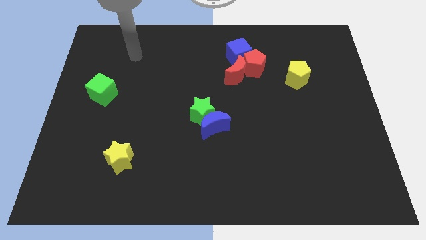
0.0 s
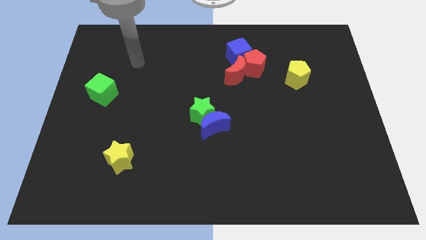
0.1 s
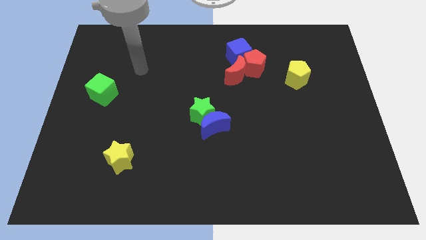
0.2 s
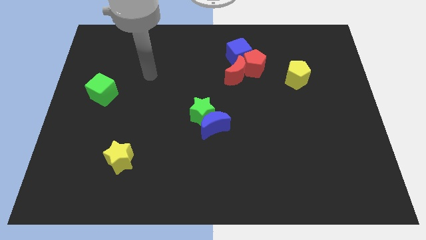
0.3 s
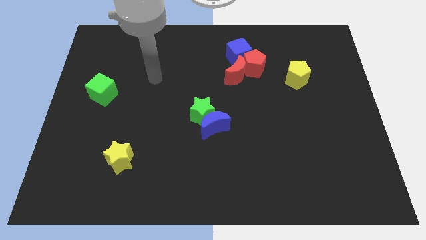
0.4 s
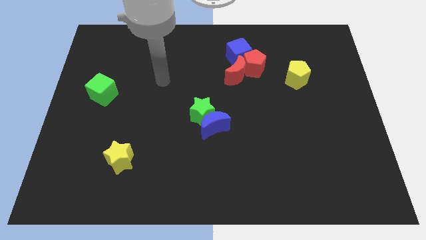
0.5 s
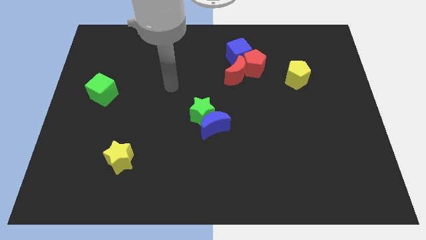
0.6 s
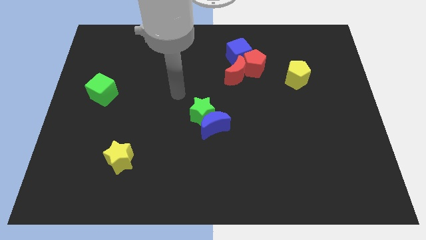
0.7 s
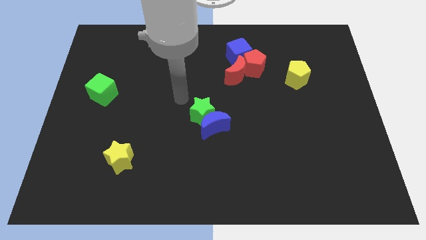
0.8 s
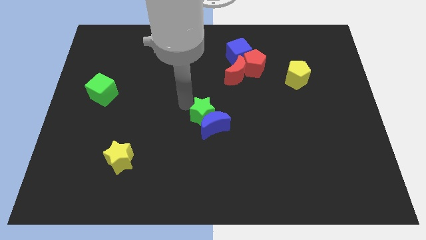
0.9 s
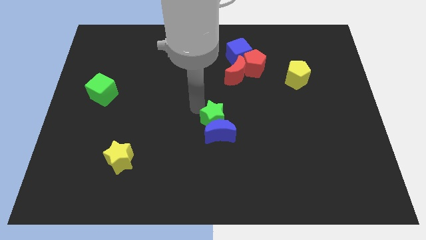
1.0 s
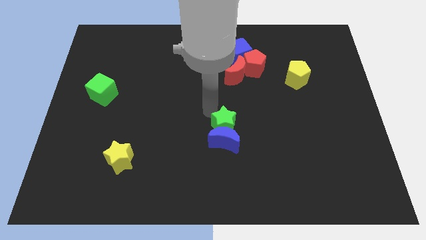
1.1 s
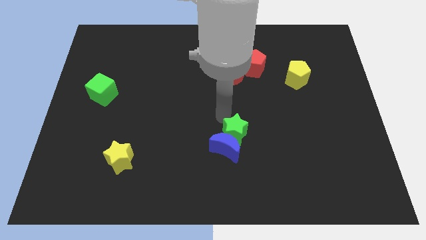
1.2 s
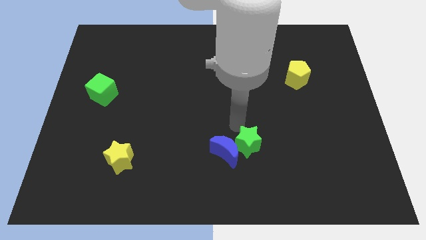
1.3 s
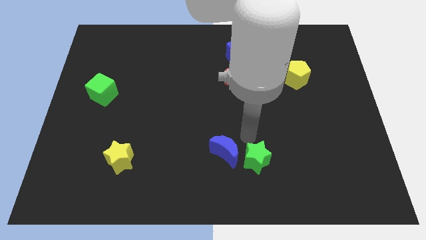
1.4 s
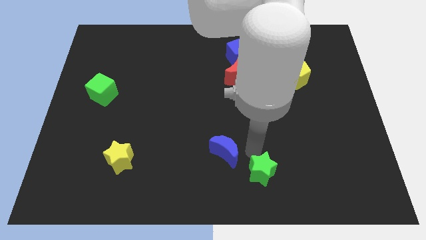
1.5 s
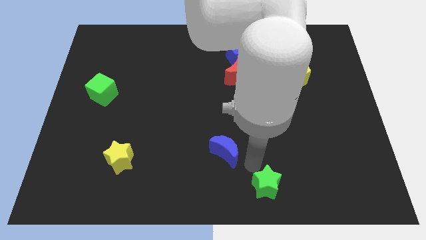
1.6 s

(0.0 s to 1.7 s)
pull the blue moon apart from the green star

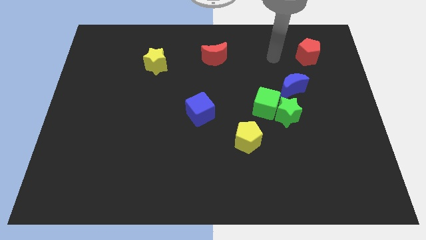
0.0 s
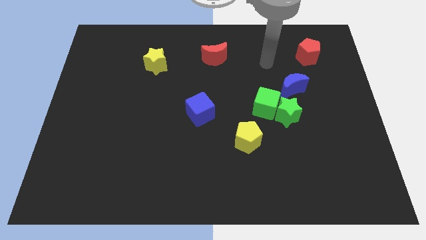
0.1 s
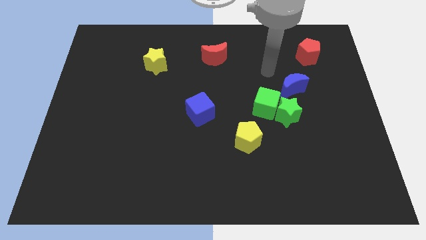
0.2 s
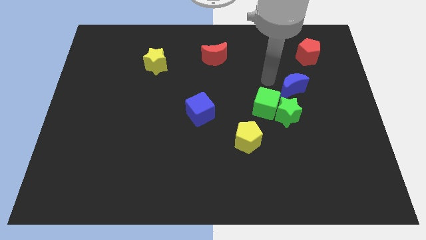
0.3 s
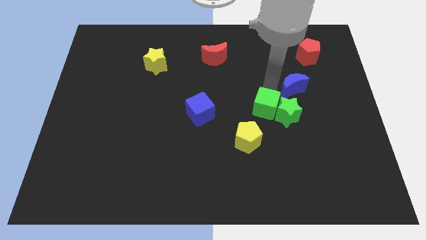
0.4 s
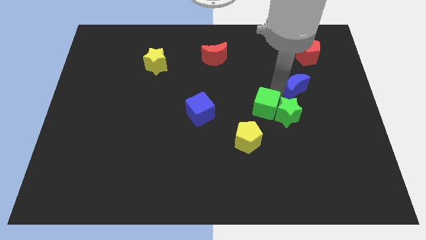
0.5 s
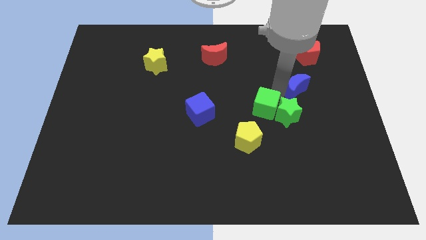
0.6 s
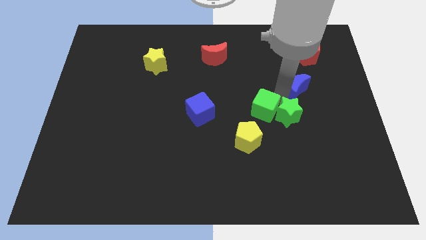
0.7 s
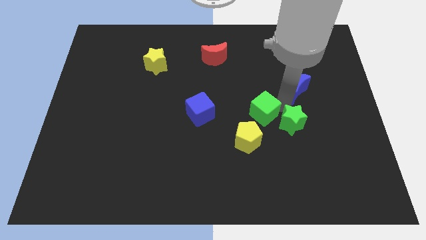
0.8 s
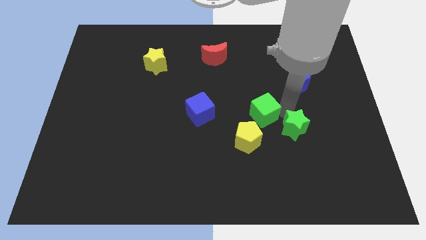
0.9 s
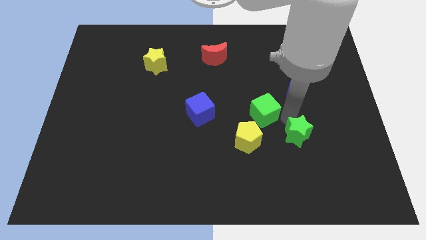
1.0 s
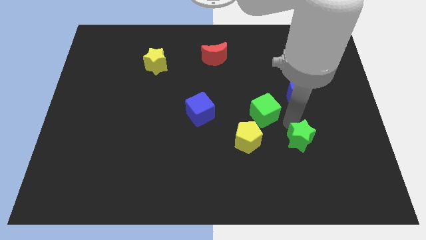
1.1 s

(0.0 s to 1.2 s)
separate the green star from the green cube and blue moon

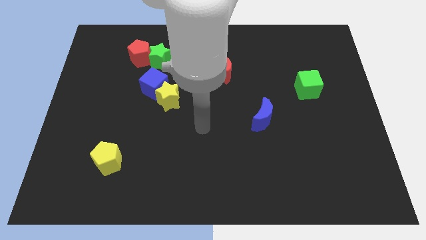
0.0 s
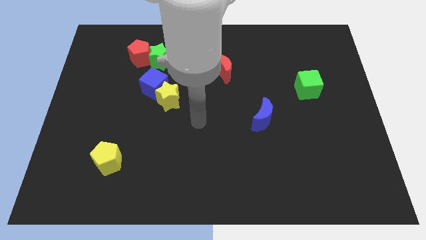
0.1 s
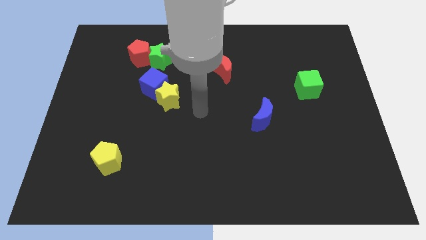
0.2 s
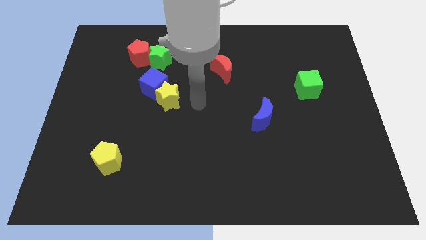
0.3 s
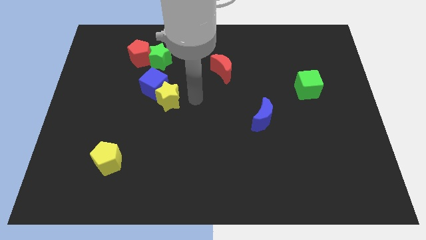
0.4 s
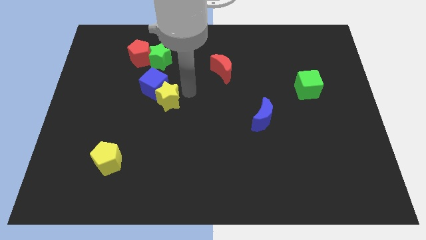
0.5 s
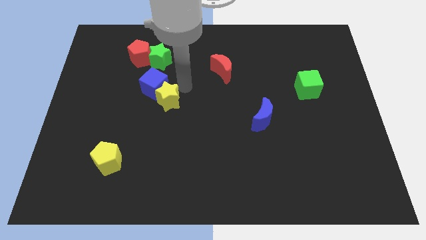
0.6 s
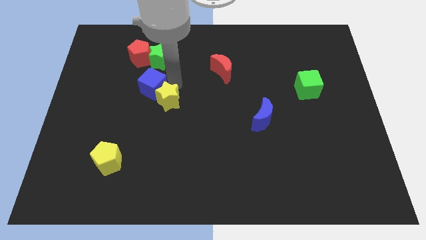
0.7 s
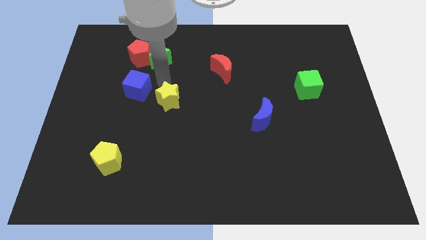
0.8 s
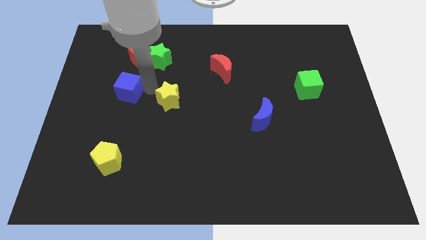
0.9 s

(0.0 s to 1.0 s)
separate the yellow star from the blue cube

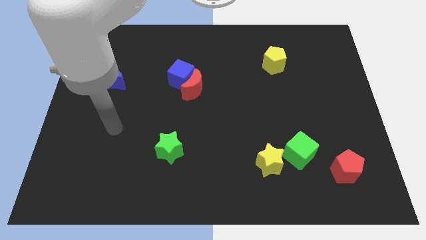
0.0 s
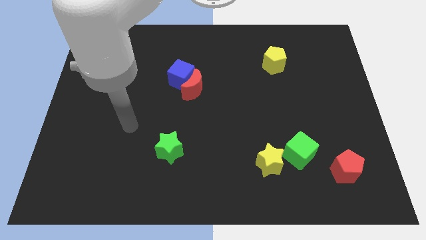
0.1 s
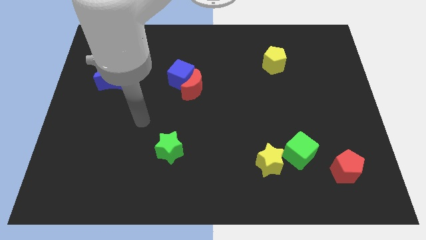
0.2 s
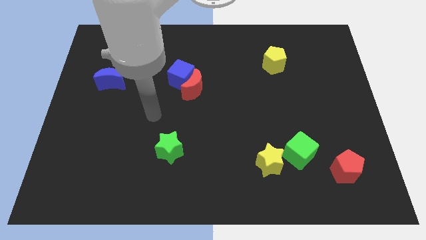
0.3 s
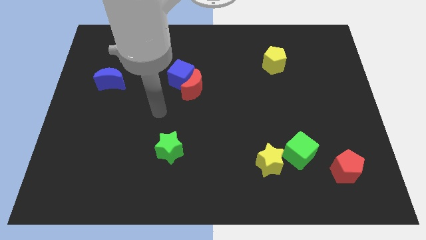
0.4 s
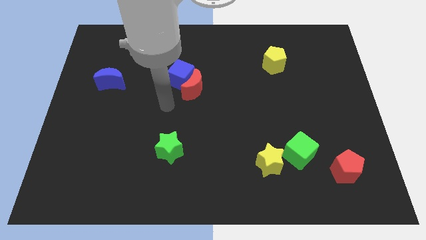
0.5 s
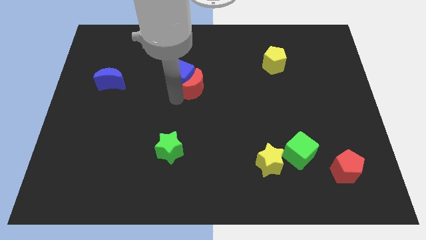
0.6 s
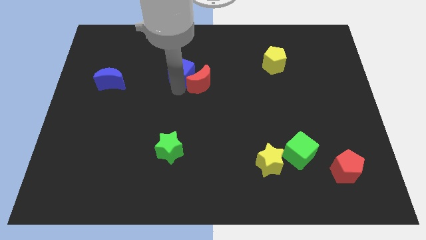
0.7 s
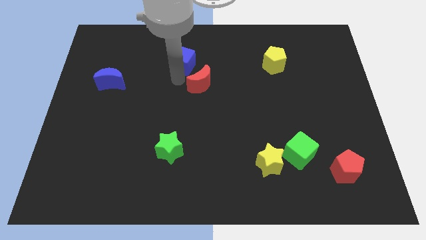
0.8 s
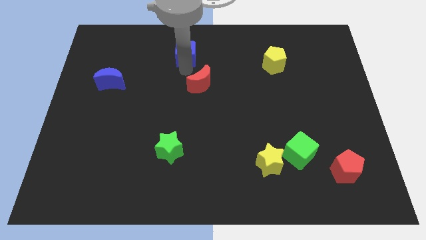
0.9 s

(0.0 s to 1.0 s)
move the red moon away from the blue cube

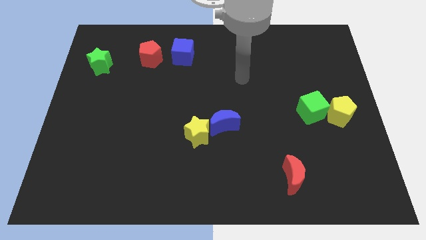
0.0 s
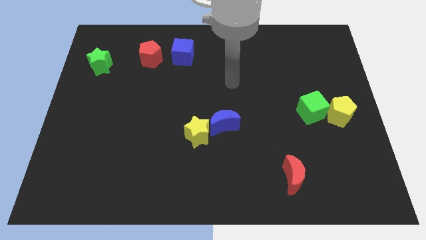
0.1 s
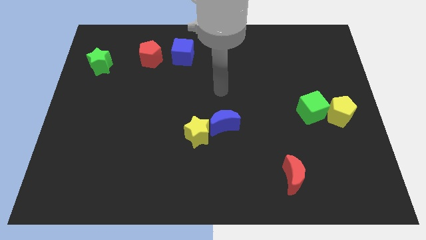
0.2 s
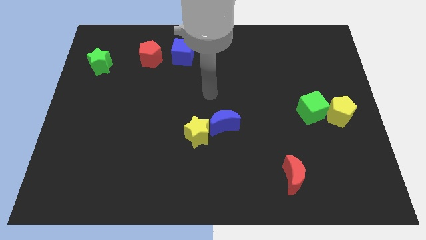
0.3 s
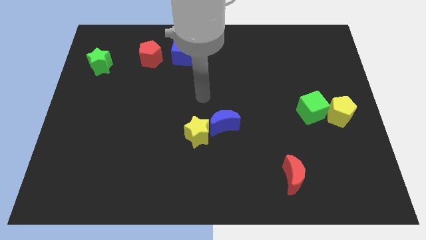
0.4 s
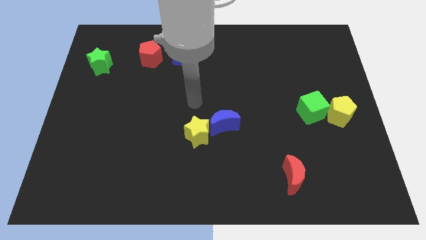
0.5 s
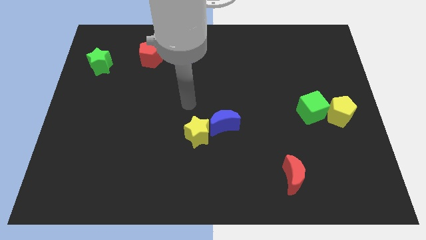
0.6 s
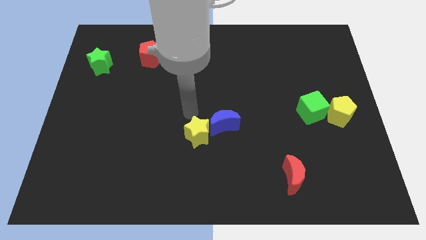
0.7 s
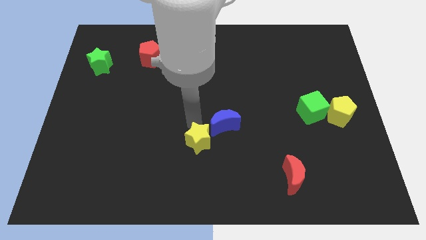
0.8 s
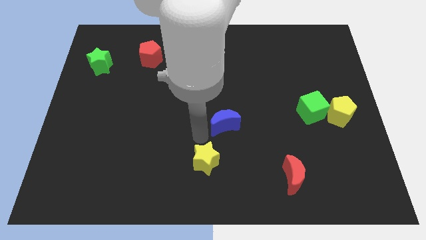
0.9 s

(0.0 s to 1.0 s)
separate the blue moon from the yellow star

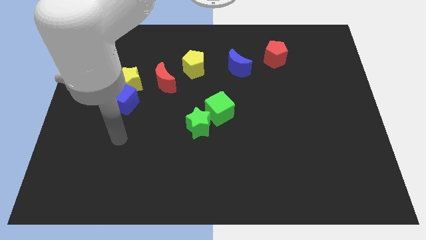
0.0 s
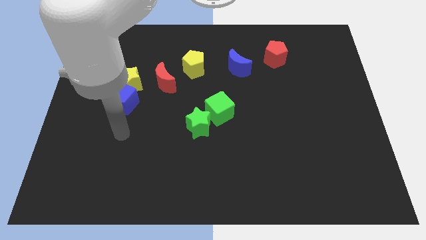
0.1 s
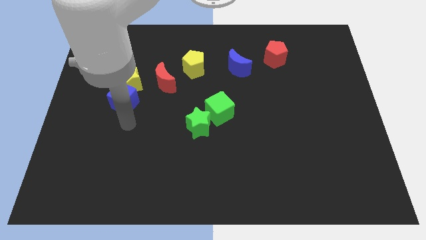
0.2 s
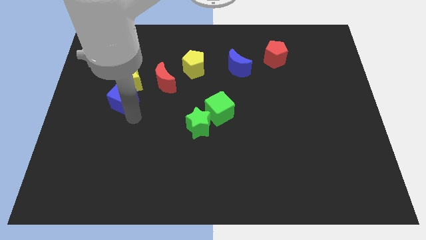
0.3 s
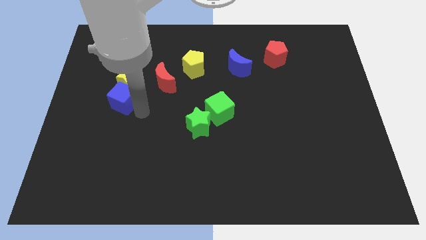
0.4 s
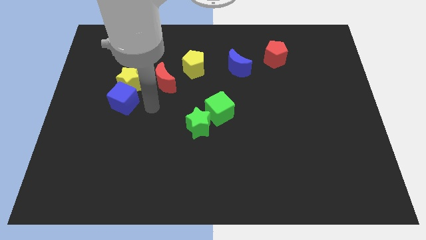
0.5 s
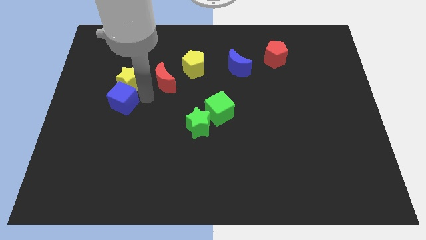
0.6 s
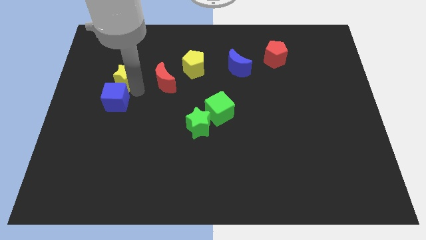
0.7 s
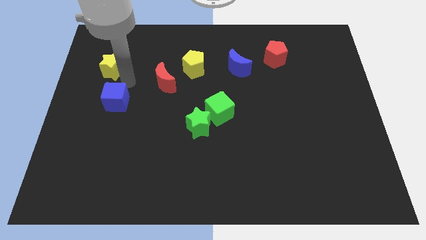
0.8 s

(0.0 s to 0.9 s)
pull the blue cube apart from the yellow star

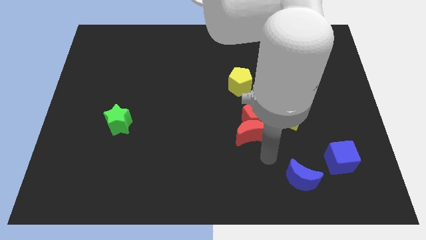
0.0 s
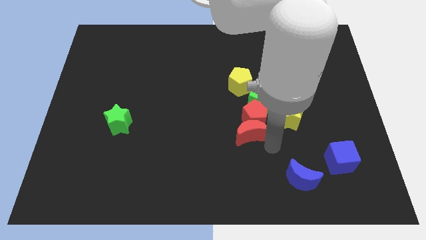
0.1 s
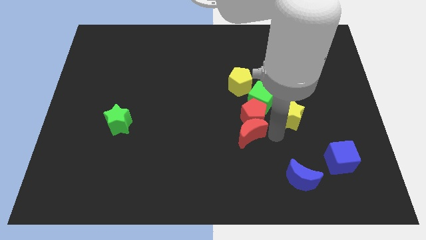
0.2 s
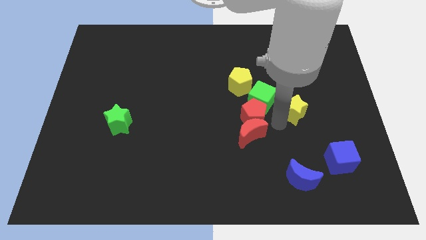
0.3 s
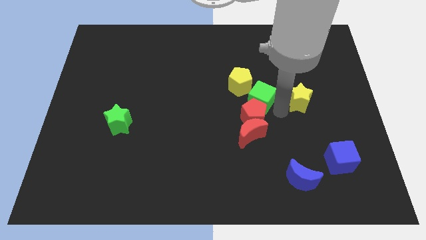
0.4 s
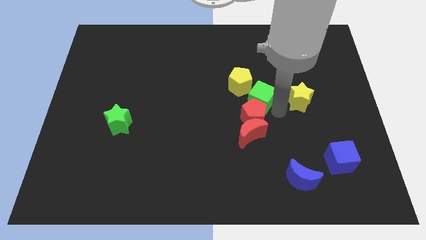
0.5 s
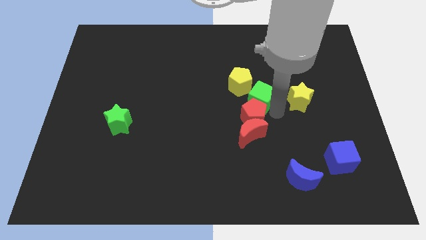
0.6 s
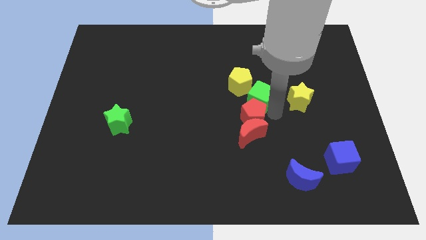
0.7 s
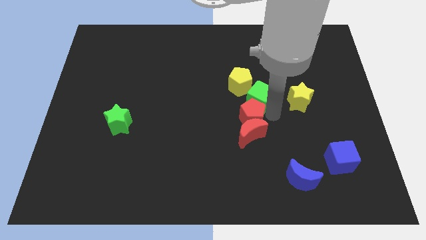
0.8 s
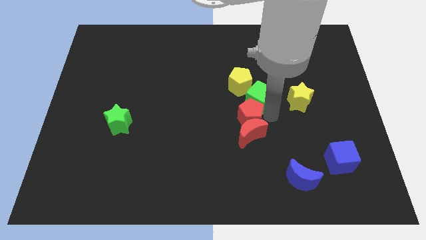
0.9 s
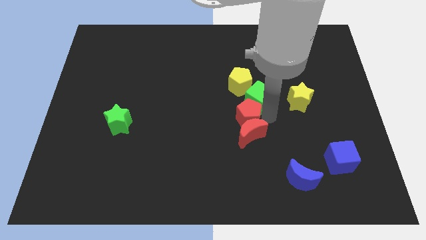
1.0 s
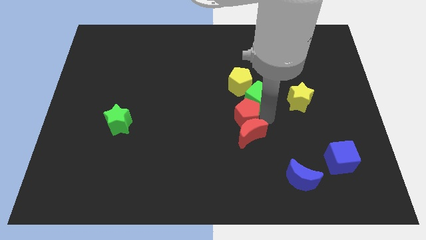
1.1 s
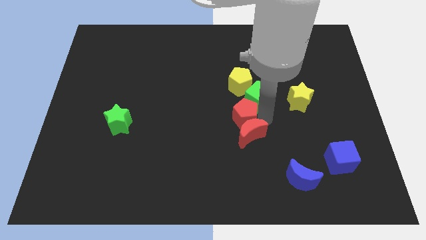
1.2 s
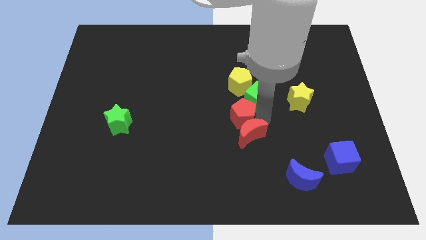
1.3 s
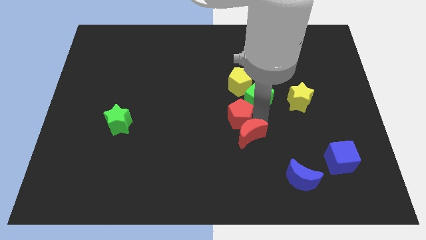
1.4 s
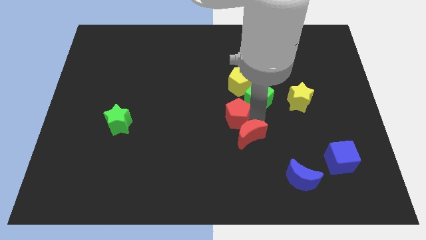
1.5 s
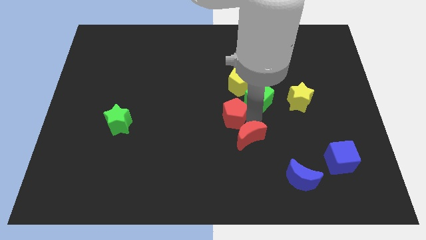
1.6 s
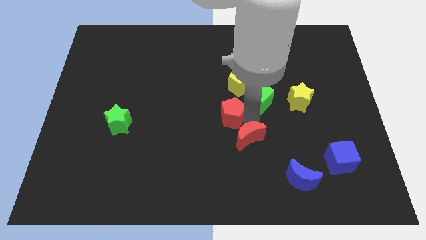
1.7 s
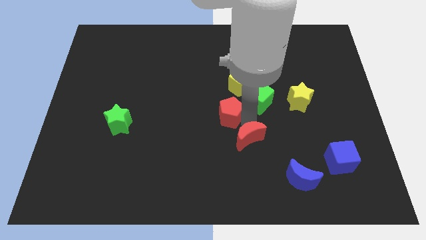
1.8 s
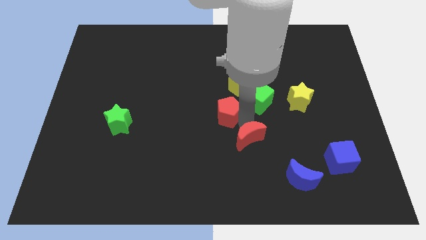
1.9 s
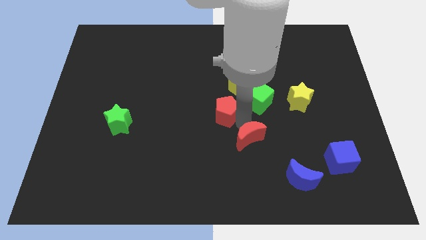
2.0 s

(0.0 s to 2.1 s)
pull the red pentagon apart from the red moon, green cube, and yellow star

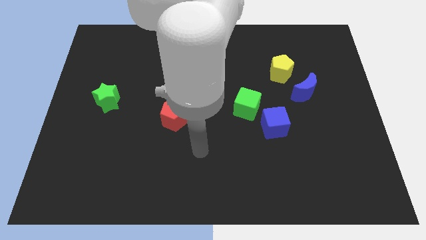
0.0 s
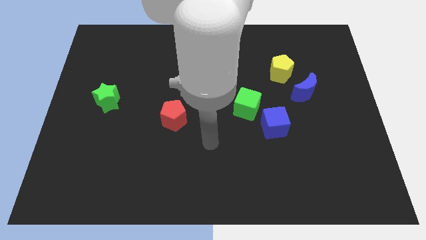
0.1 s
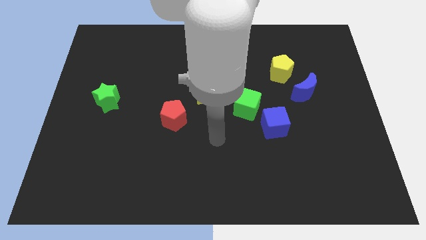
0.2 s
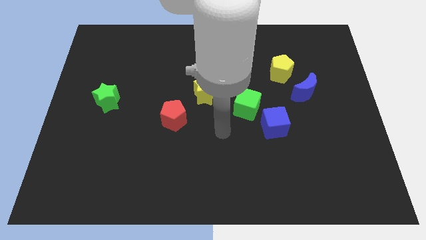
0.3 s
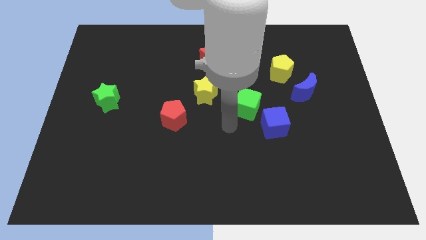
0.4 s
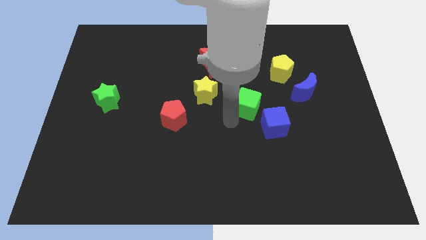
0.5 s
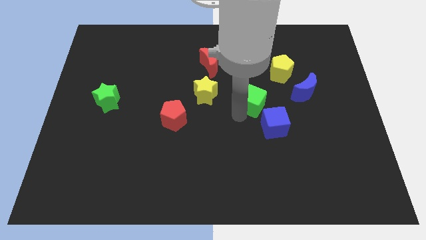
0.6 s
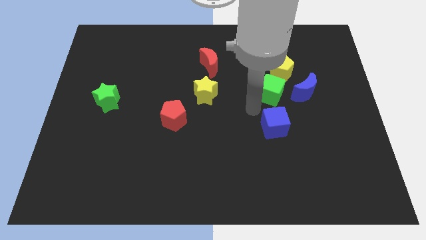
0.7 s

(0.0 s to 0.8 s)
pull the blue cube apart from the green cube
